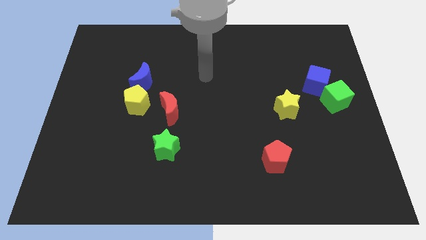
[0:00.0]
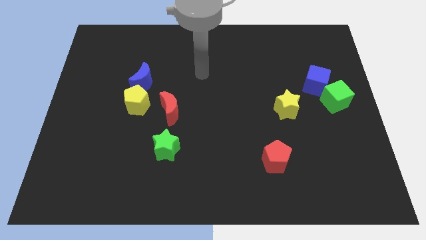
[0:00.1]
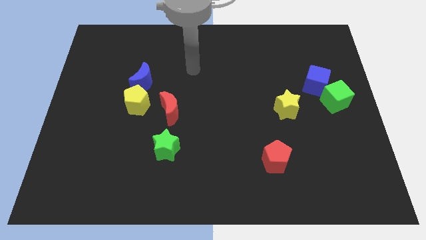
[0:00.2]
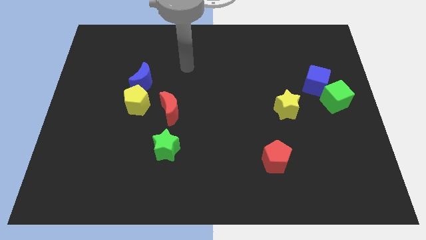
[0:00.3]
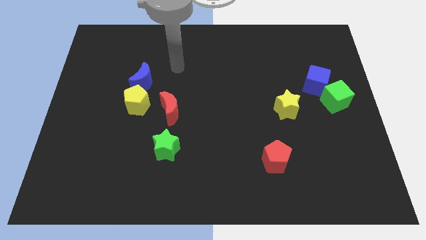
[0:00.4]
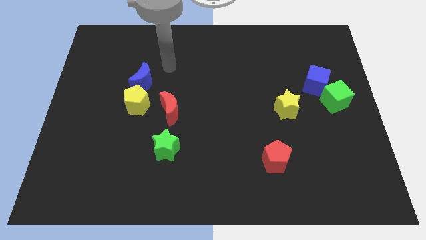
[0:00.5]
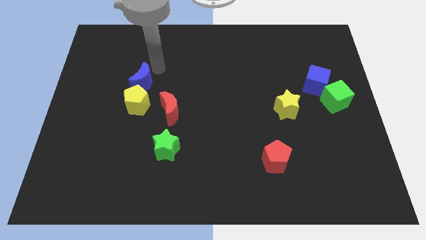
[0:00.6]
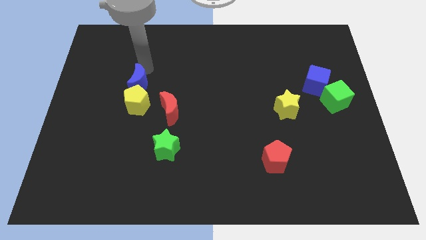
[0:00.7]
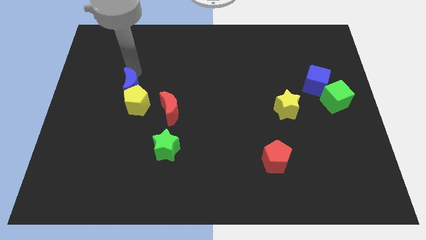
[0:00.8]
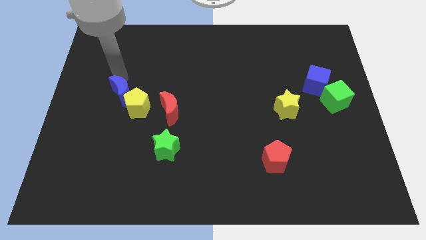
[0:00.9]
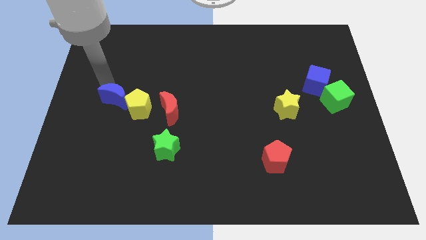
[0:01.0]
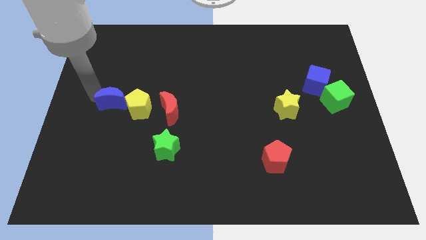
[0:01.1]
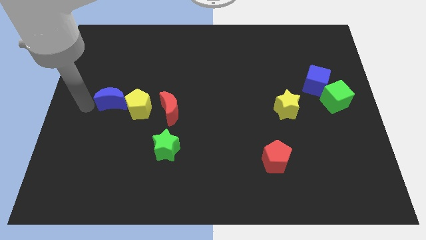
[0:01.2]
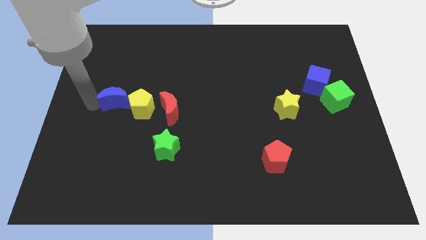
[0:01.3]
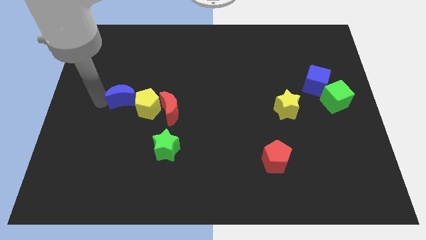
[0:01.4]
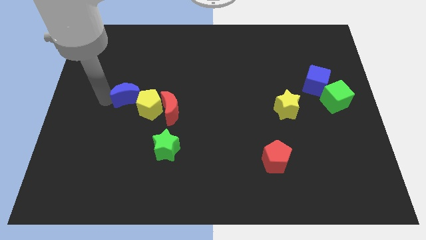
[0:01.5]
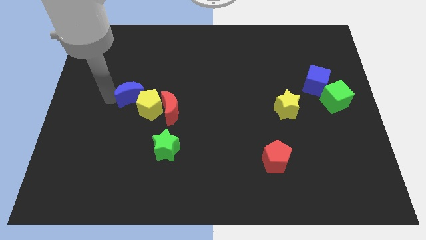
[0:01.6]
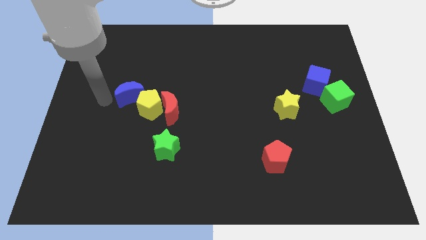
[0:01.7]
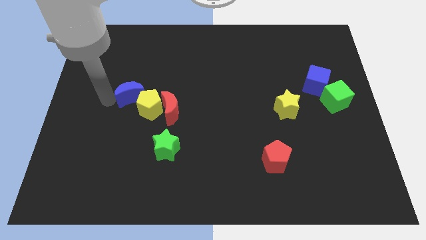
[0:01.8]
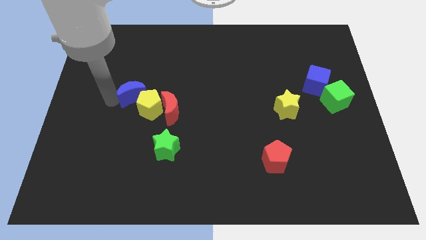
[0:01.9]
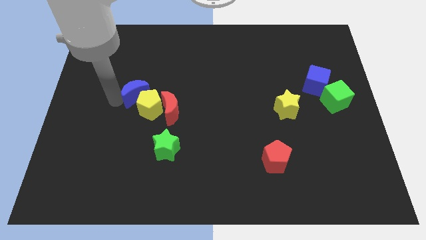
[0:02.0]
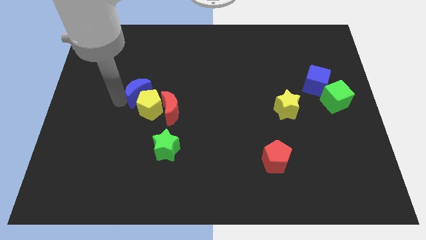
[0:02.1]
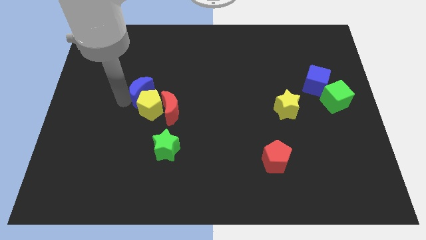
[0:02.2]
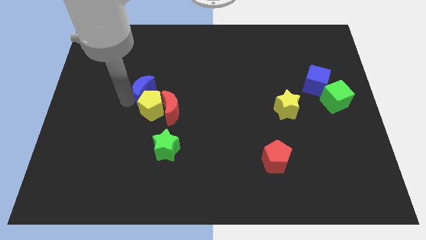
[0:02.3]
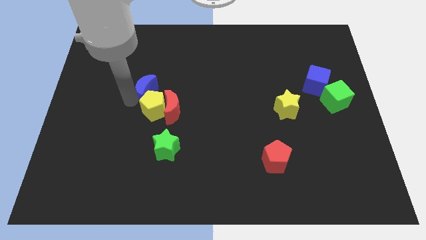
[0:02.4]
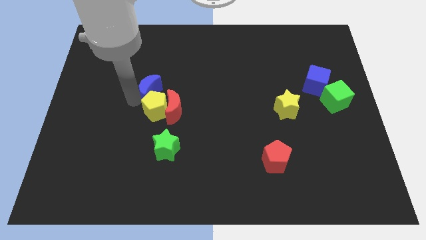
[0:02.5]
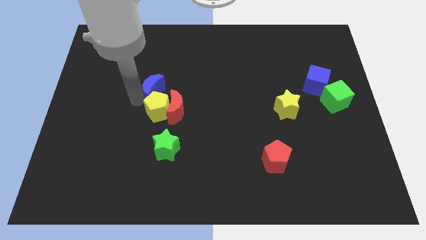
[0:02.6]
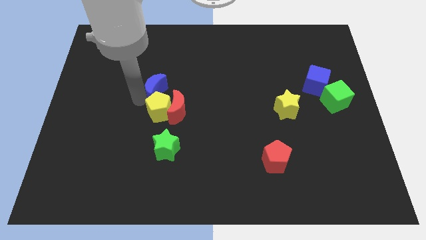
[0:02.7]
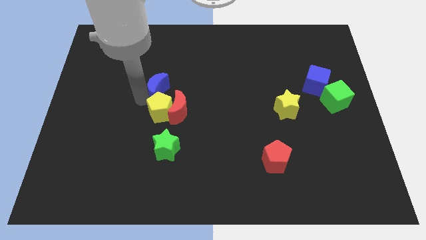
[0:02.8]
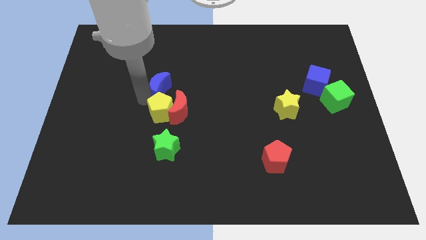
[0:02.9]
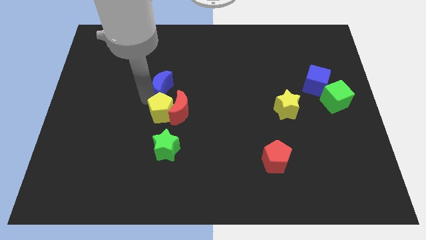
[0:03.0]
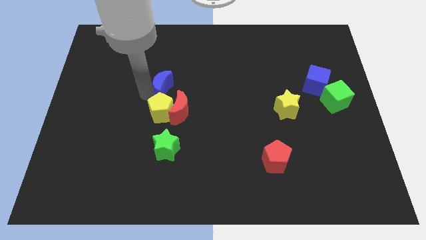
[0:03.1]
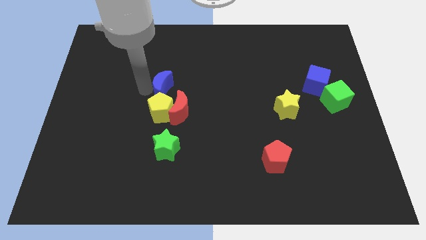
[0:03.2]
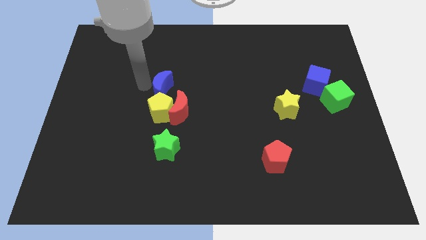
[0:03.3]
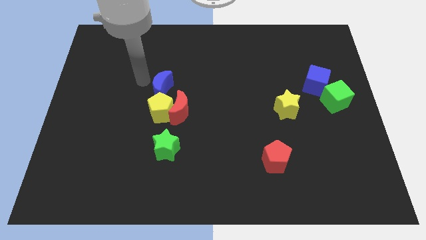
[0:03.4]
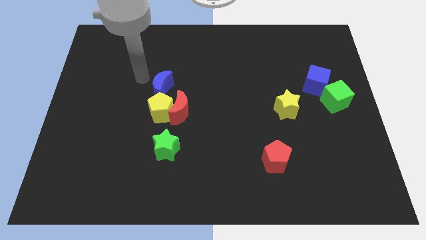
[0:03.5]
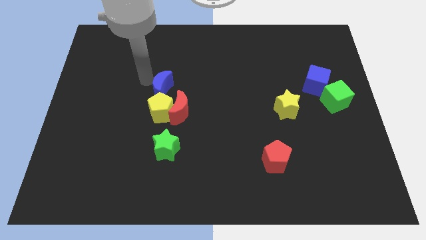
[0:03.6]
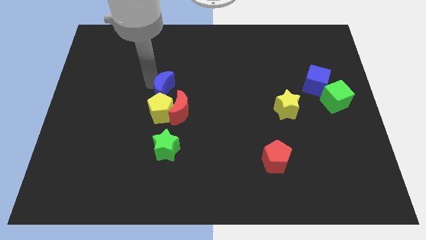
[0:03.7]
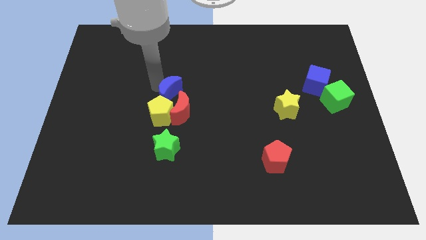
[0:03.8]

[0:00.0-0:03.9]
slightly move the blue moon down and then right

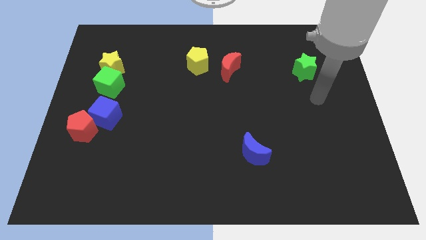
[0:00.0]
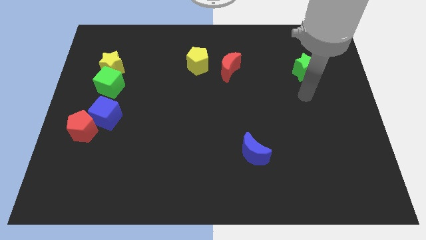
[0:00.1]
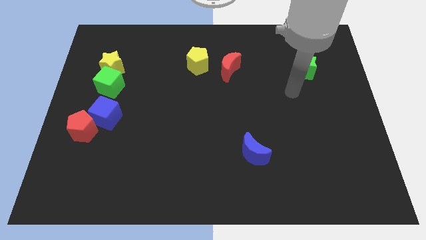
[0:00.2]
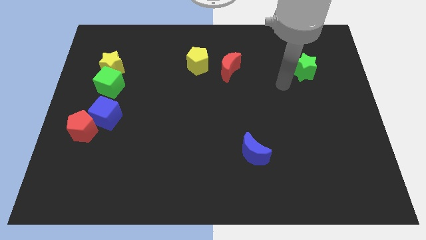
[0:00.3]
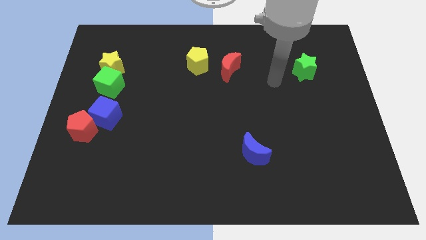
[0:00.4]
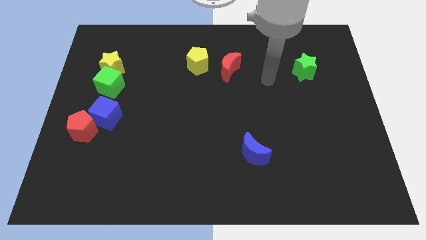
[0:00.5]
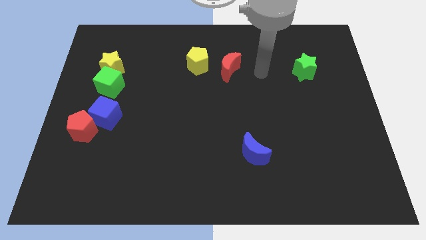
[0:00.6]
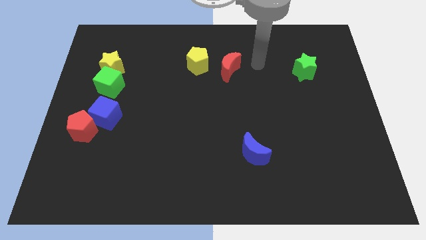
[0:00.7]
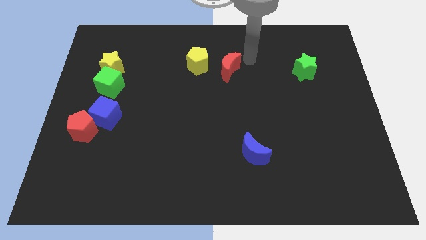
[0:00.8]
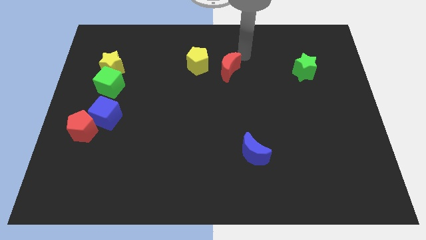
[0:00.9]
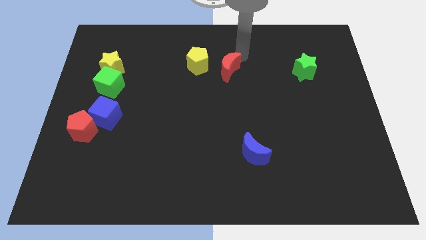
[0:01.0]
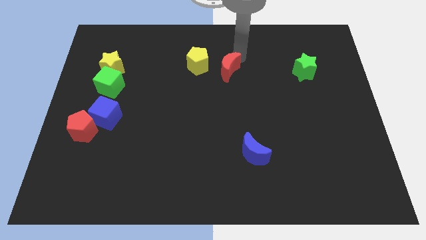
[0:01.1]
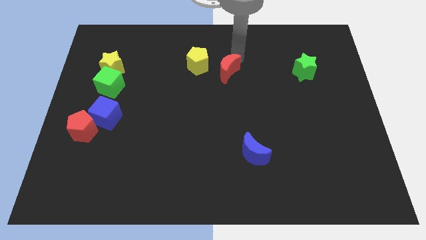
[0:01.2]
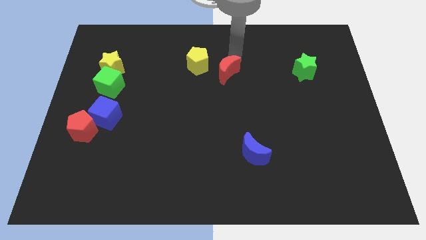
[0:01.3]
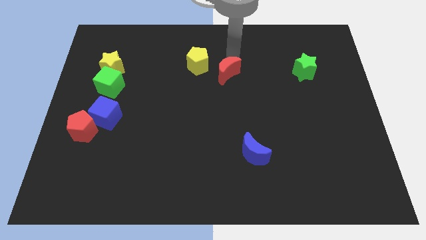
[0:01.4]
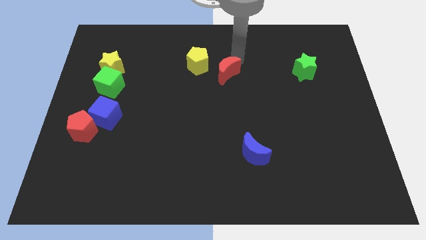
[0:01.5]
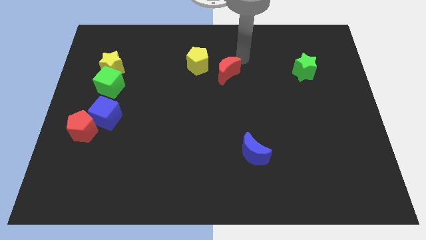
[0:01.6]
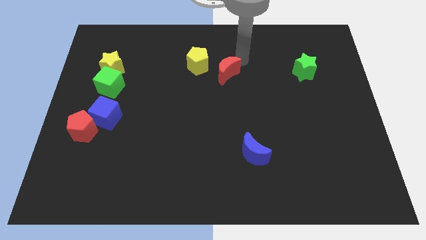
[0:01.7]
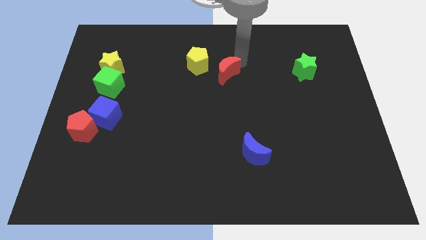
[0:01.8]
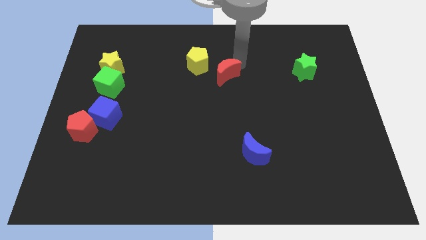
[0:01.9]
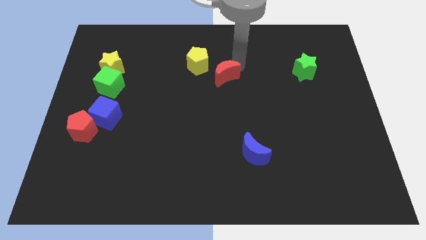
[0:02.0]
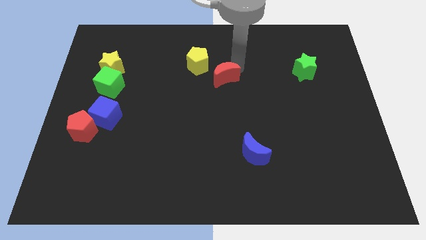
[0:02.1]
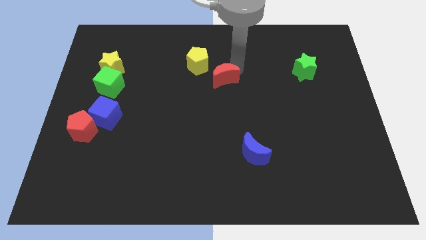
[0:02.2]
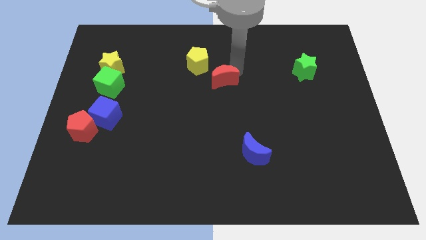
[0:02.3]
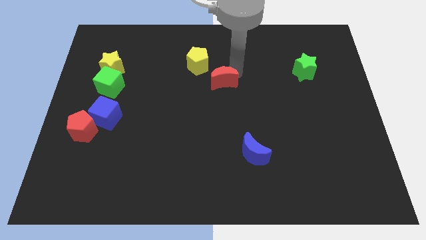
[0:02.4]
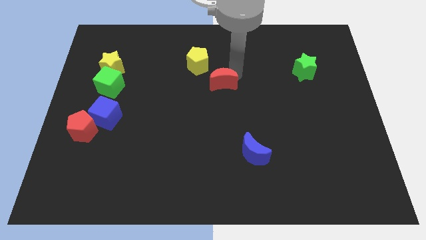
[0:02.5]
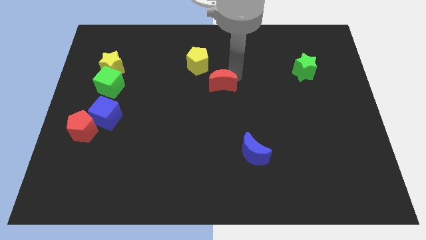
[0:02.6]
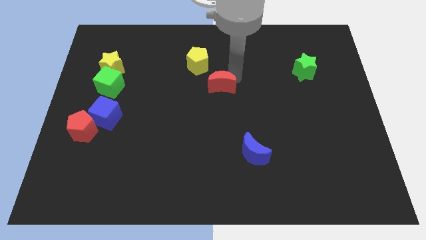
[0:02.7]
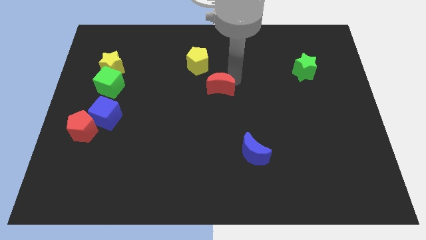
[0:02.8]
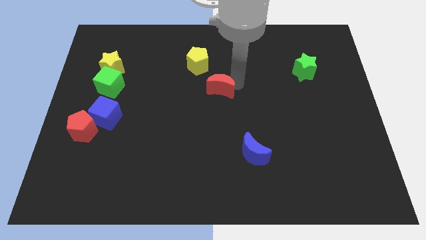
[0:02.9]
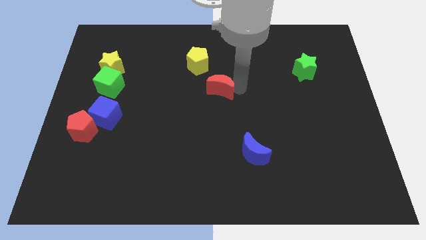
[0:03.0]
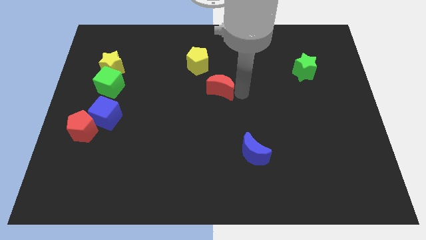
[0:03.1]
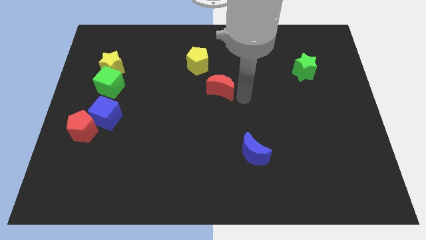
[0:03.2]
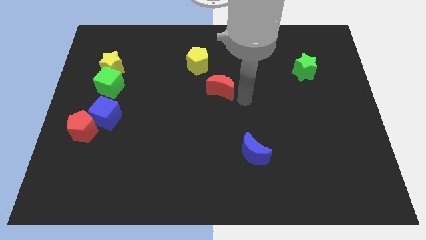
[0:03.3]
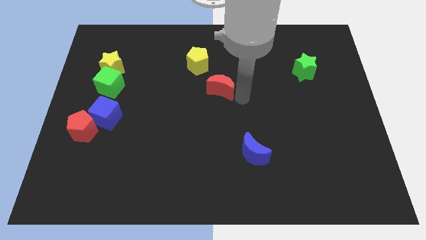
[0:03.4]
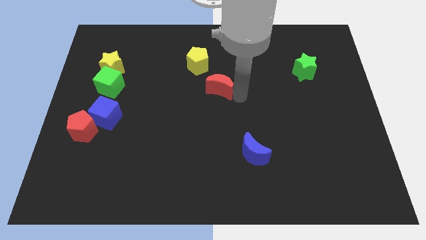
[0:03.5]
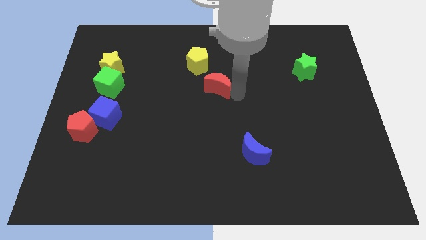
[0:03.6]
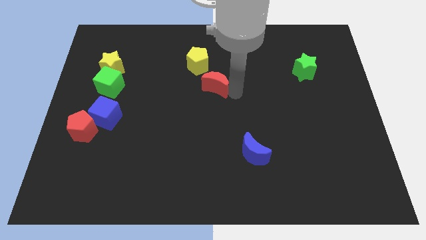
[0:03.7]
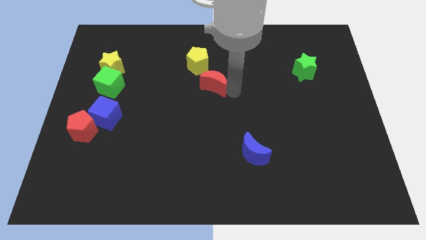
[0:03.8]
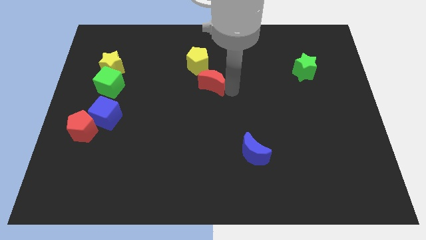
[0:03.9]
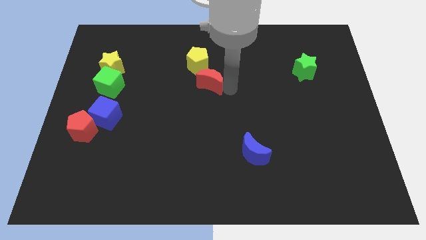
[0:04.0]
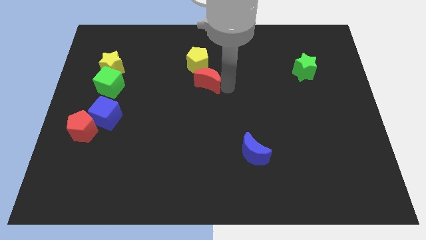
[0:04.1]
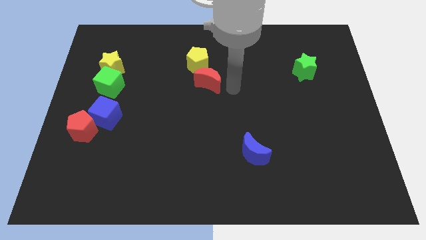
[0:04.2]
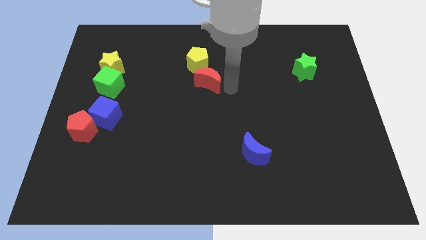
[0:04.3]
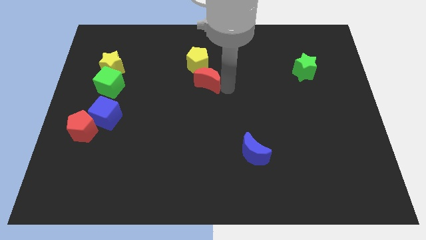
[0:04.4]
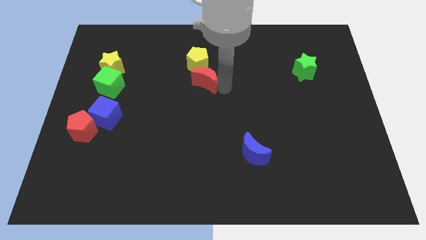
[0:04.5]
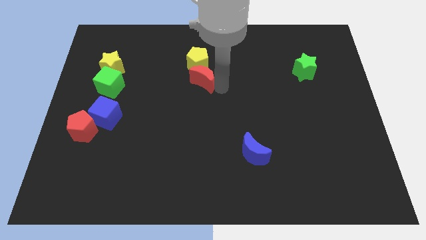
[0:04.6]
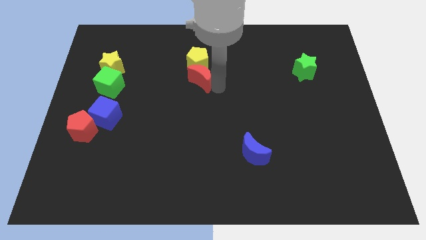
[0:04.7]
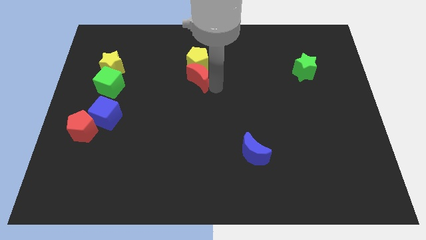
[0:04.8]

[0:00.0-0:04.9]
slide the red moon a little left
